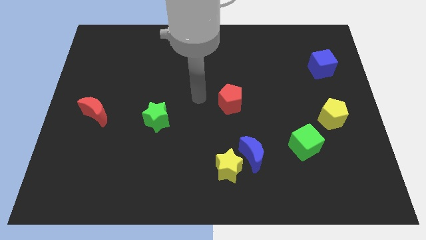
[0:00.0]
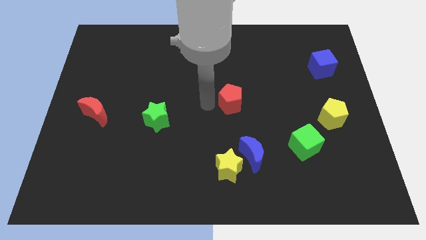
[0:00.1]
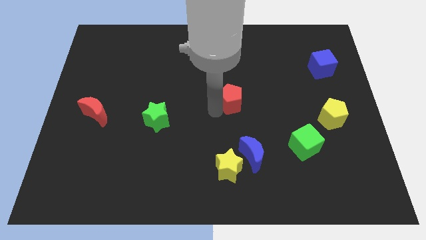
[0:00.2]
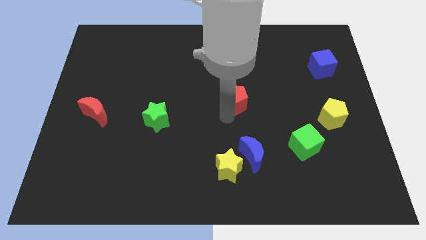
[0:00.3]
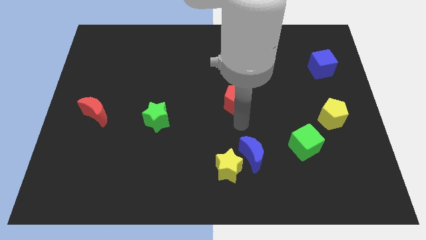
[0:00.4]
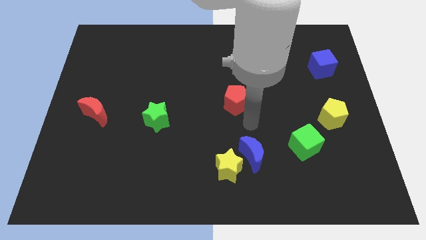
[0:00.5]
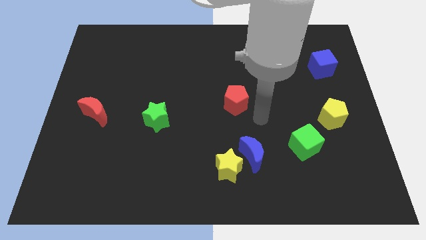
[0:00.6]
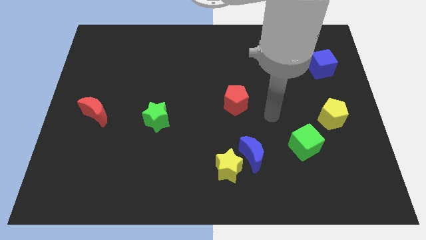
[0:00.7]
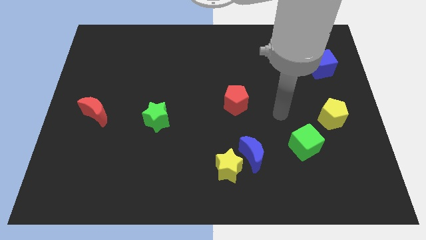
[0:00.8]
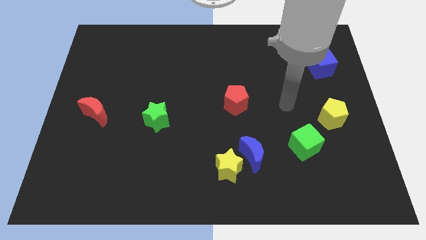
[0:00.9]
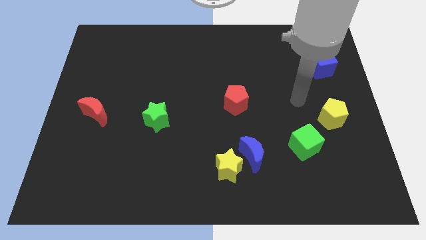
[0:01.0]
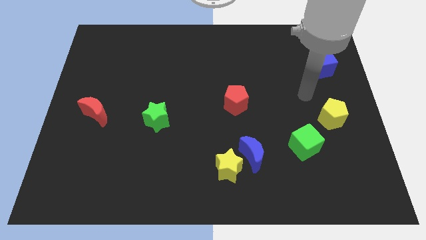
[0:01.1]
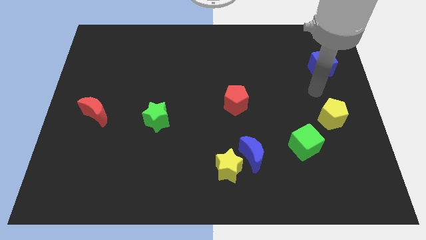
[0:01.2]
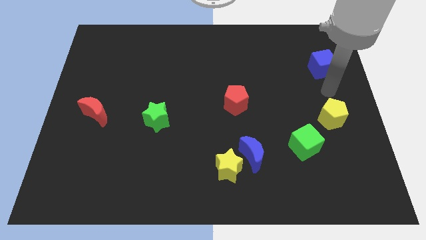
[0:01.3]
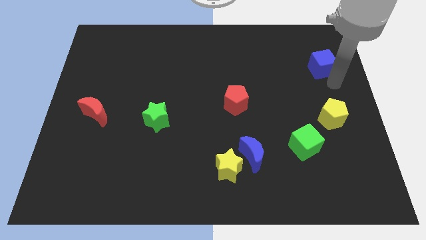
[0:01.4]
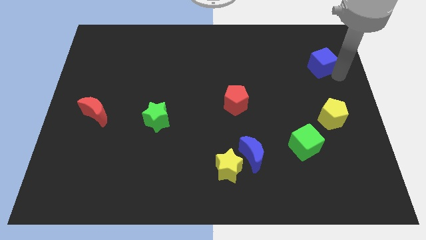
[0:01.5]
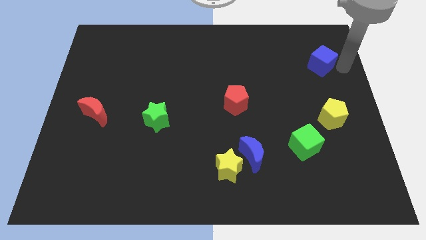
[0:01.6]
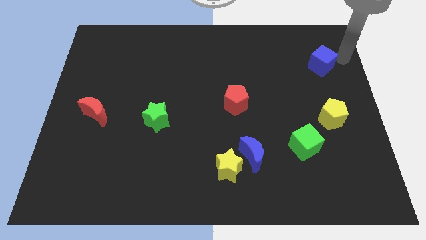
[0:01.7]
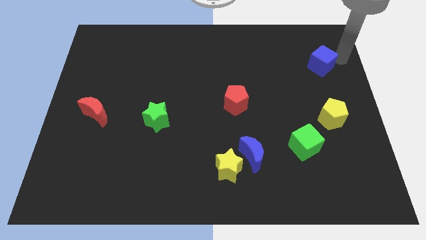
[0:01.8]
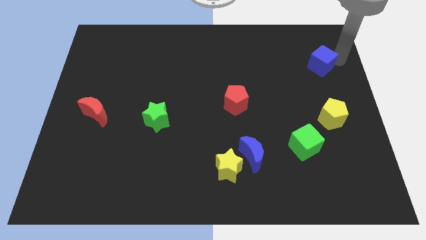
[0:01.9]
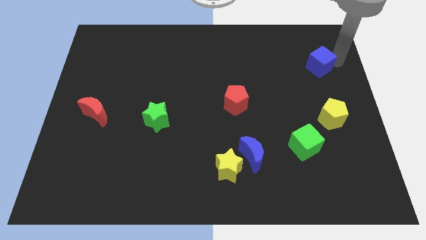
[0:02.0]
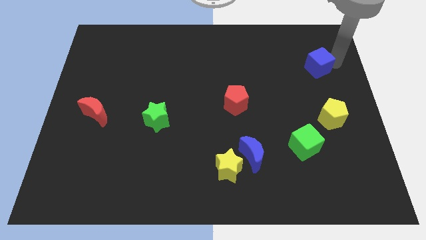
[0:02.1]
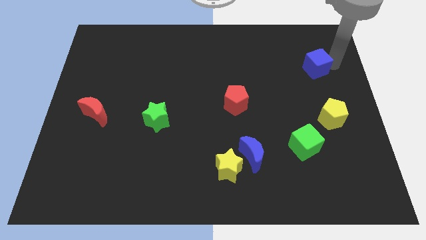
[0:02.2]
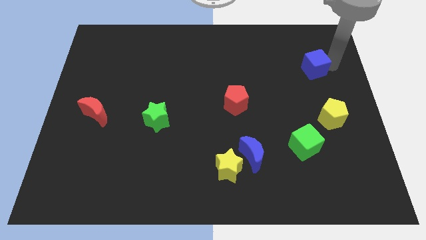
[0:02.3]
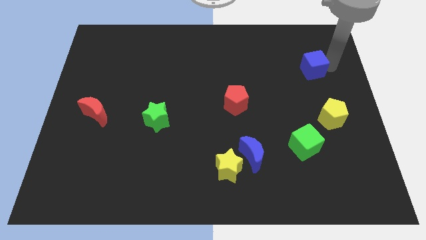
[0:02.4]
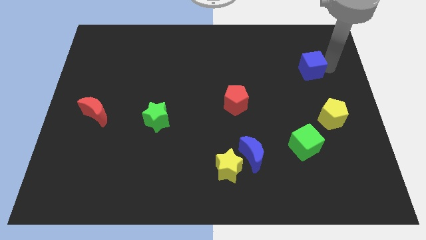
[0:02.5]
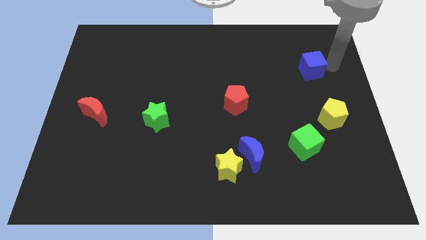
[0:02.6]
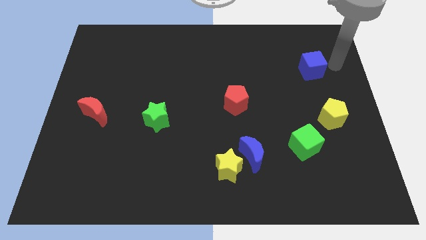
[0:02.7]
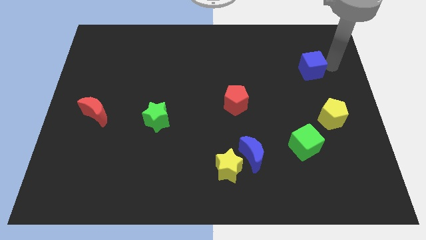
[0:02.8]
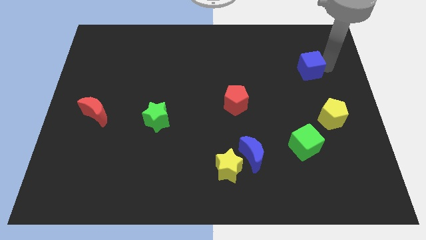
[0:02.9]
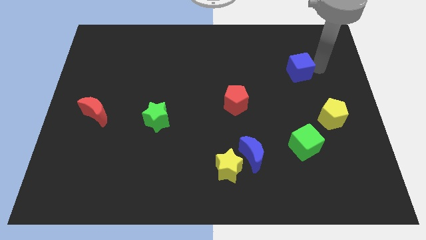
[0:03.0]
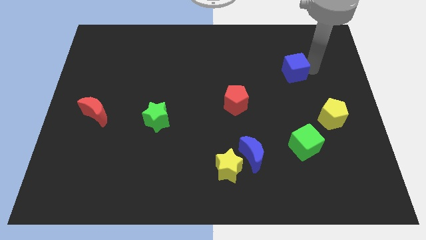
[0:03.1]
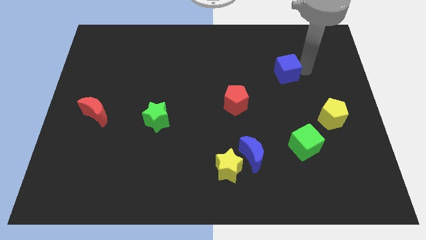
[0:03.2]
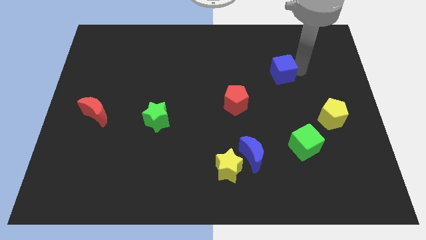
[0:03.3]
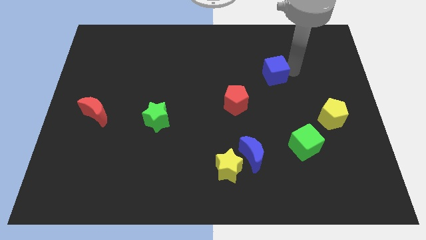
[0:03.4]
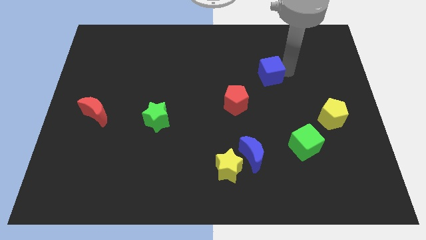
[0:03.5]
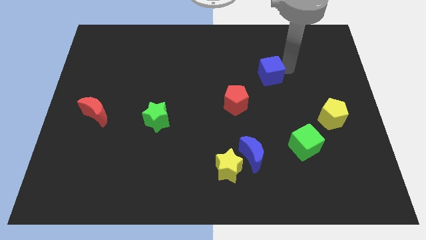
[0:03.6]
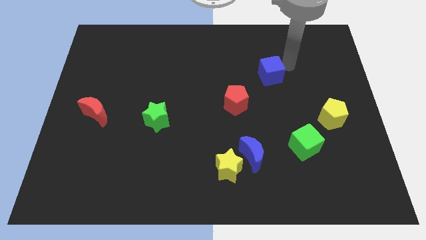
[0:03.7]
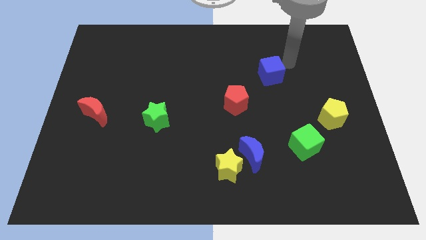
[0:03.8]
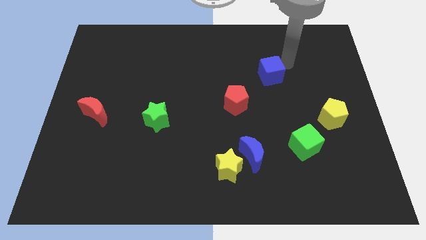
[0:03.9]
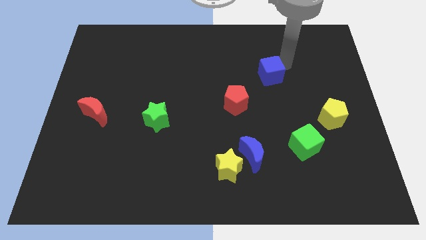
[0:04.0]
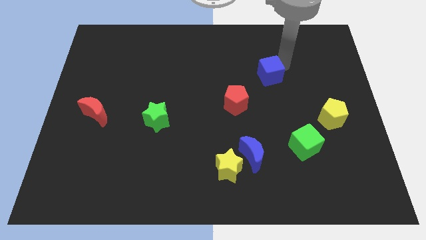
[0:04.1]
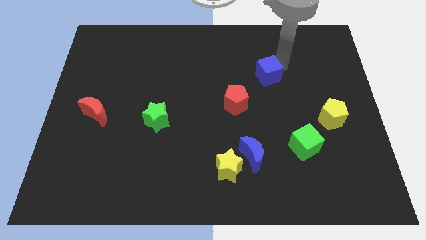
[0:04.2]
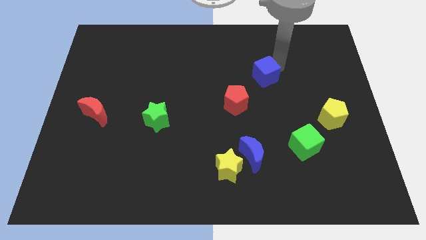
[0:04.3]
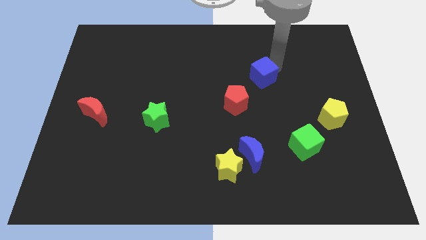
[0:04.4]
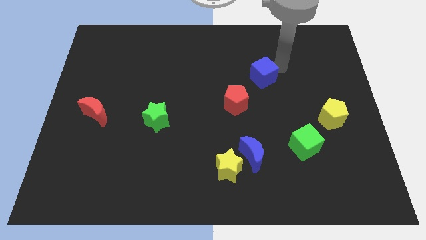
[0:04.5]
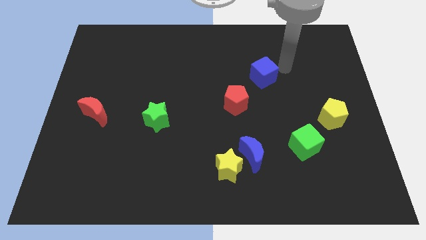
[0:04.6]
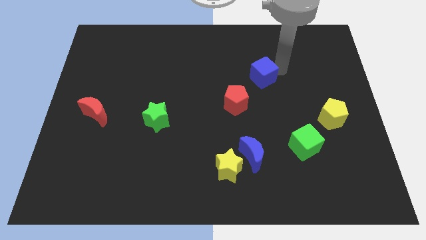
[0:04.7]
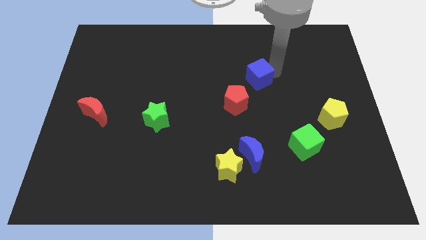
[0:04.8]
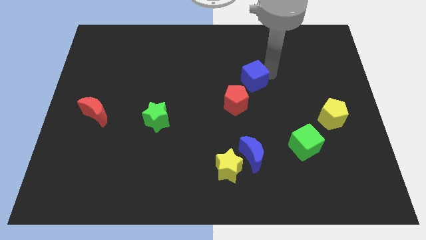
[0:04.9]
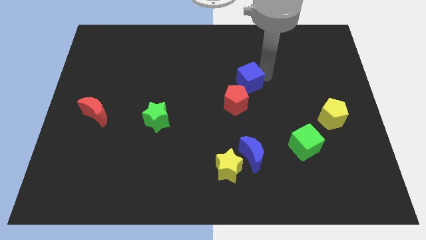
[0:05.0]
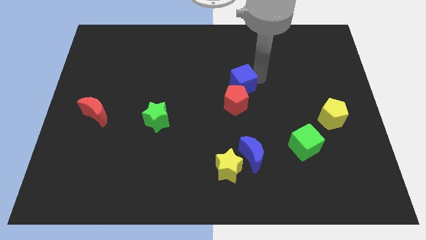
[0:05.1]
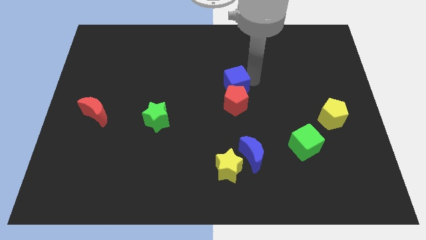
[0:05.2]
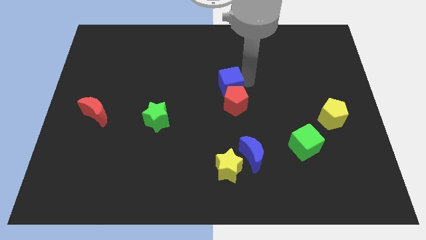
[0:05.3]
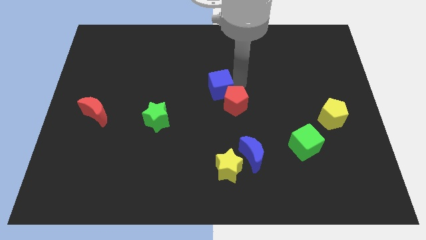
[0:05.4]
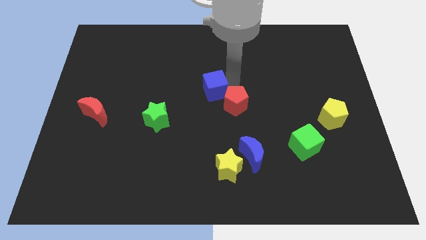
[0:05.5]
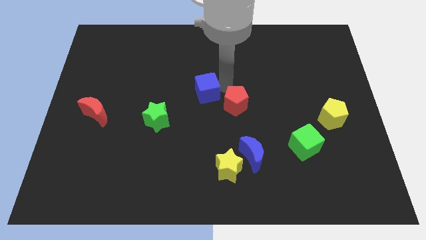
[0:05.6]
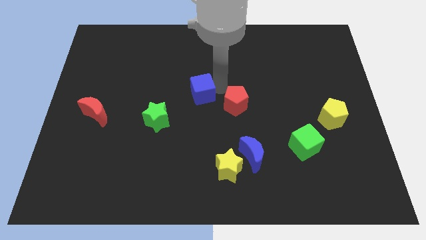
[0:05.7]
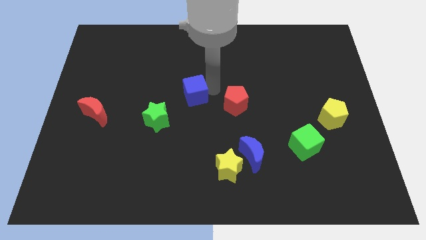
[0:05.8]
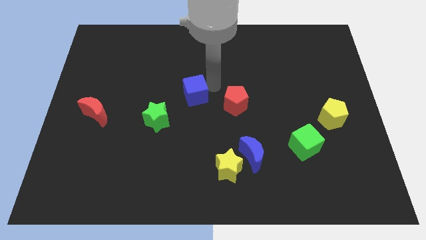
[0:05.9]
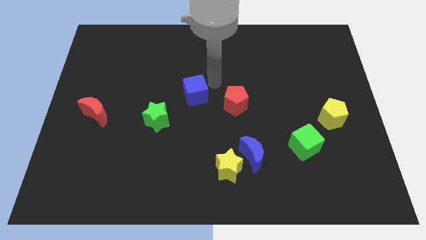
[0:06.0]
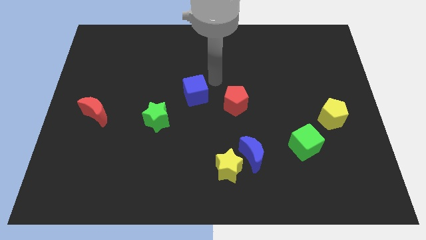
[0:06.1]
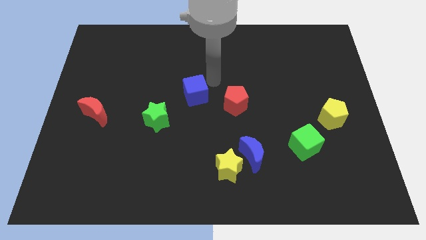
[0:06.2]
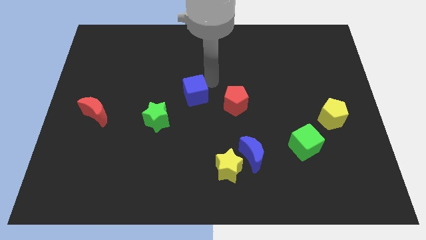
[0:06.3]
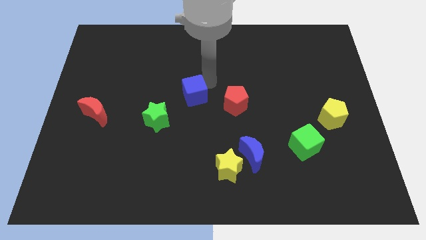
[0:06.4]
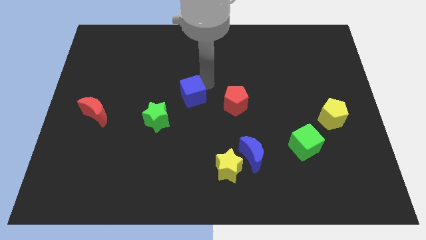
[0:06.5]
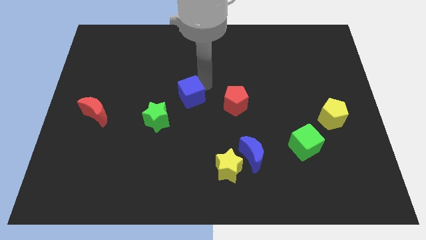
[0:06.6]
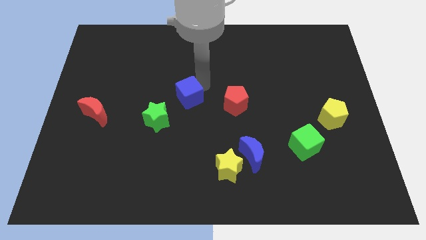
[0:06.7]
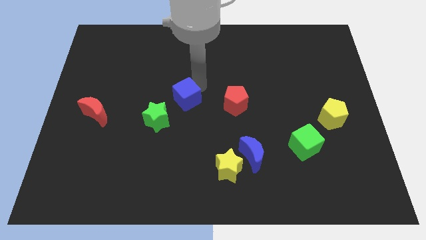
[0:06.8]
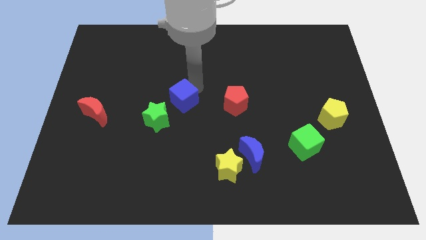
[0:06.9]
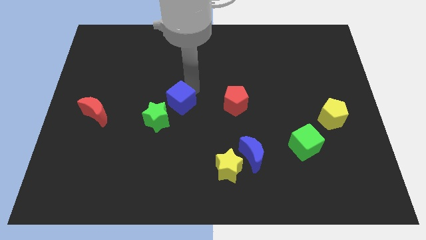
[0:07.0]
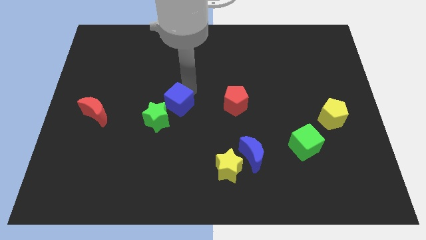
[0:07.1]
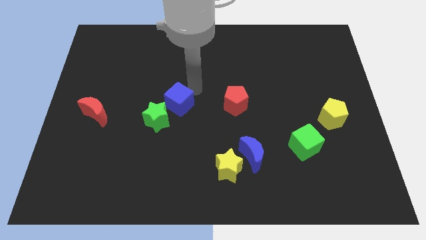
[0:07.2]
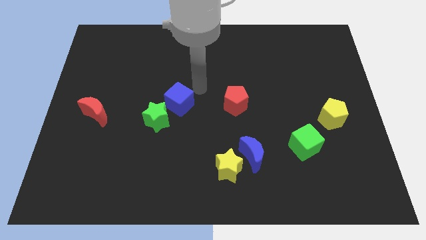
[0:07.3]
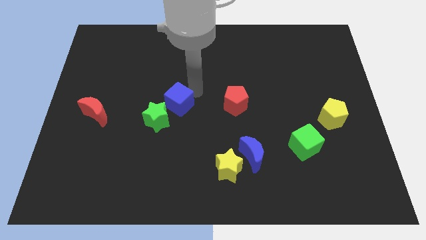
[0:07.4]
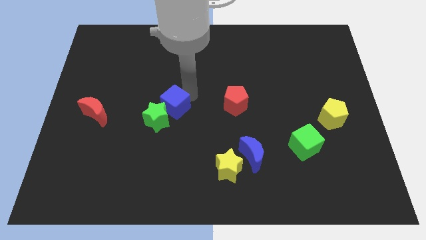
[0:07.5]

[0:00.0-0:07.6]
put the blue cube to the green star
